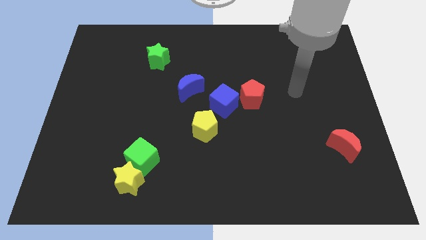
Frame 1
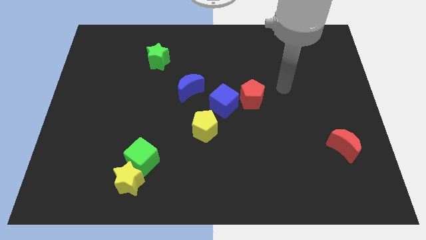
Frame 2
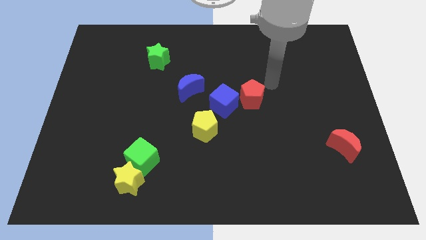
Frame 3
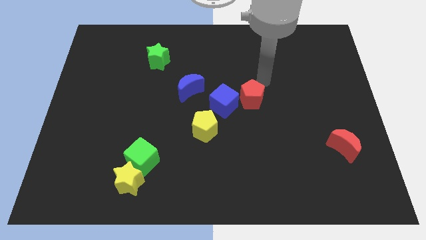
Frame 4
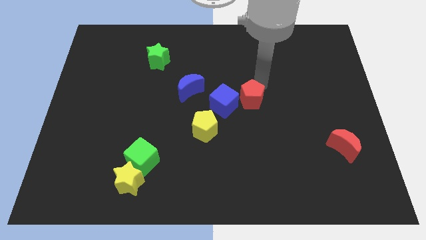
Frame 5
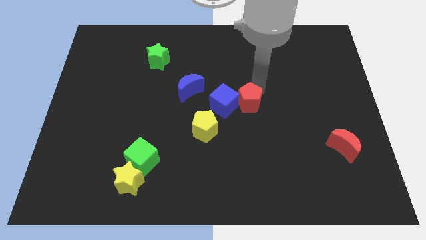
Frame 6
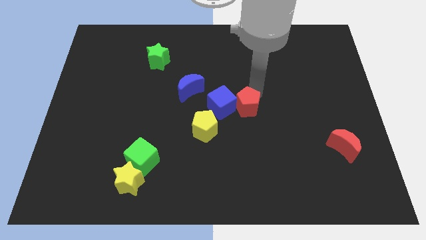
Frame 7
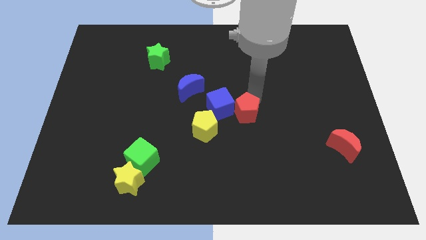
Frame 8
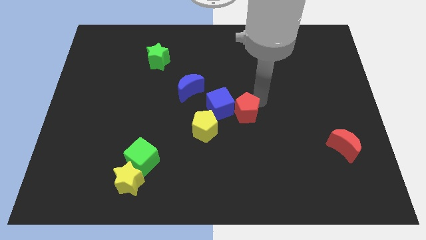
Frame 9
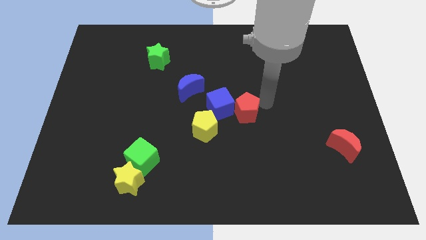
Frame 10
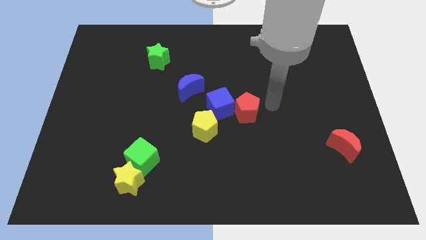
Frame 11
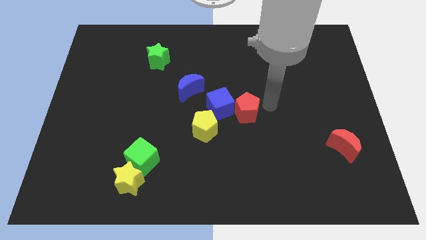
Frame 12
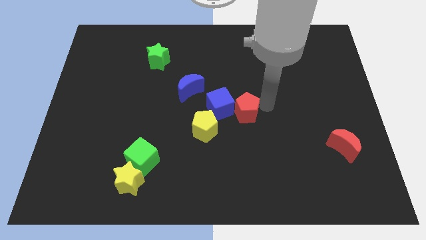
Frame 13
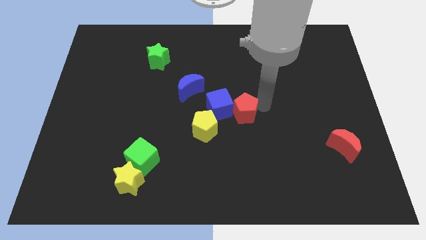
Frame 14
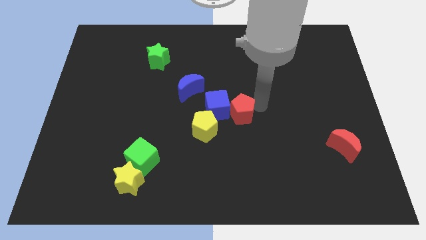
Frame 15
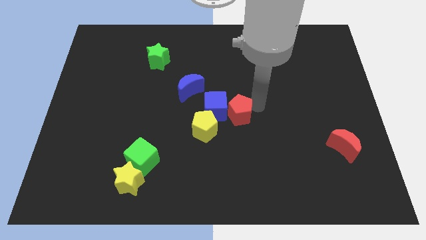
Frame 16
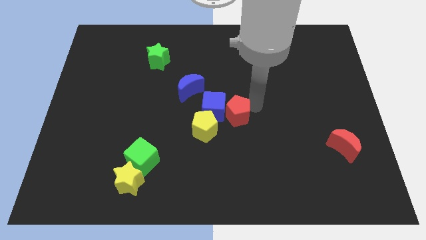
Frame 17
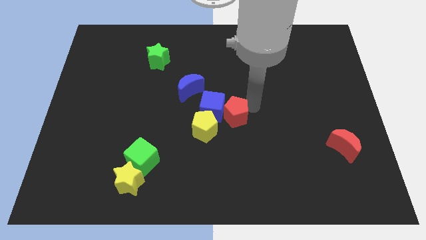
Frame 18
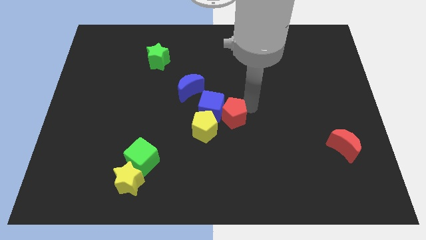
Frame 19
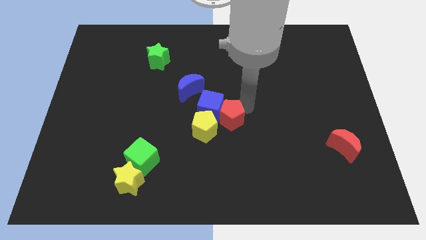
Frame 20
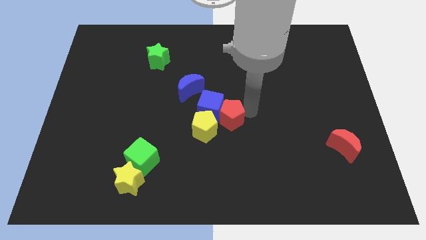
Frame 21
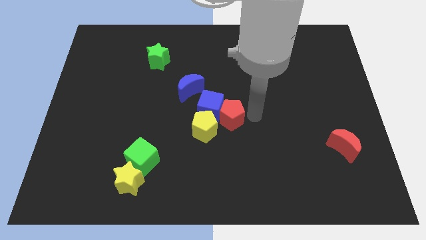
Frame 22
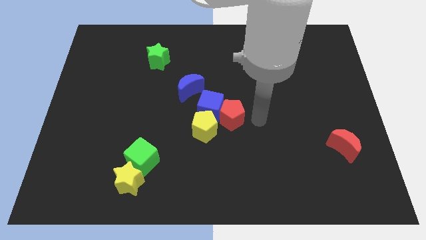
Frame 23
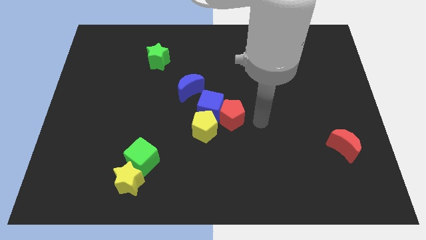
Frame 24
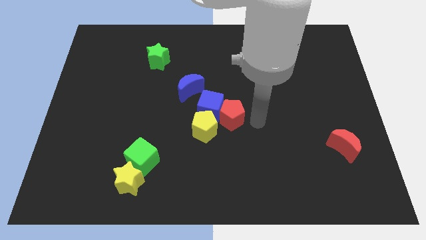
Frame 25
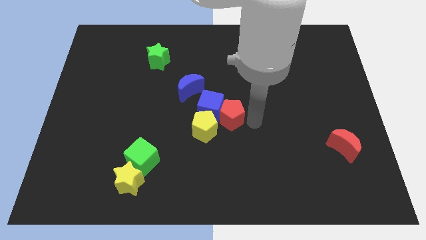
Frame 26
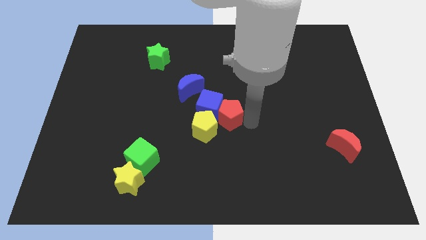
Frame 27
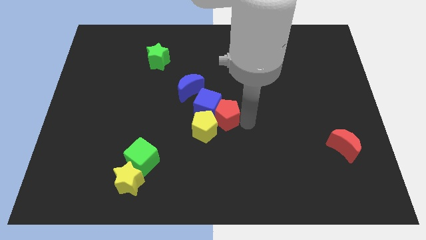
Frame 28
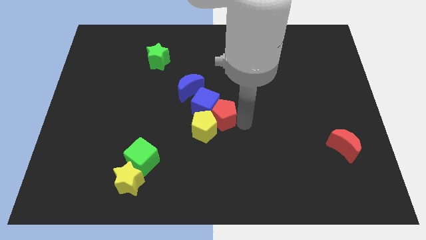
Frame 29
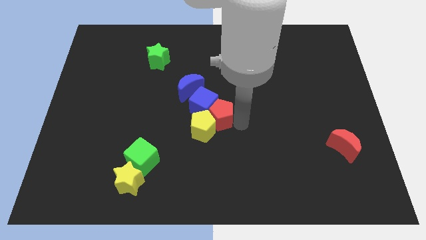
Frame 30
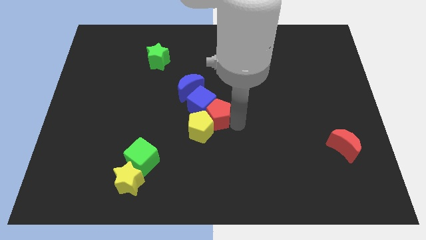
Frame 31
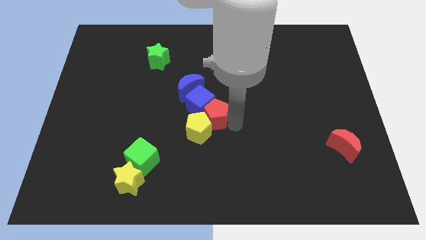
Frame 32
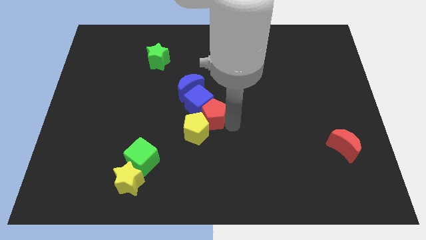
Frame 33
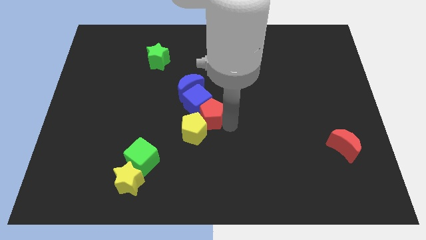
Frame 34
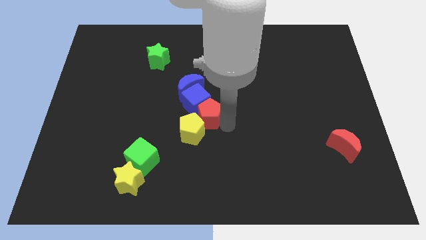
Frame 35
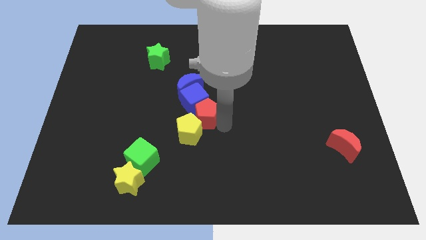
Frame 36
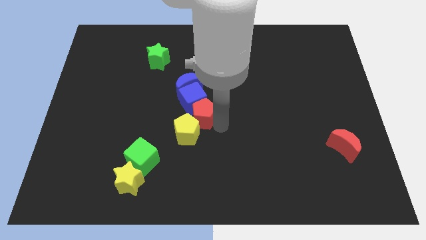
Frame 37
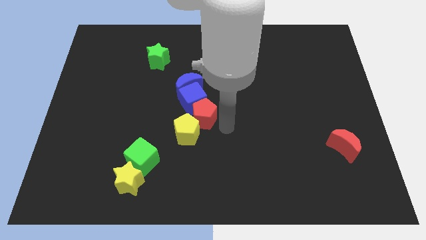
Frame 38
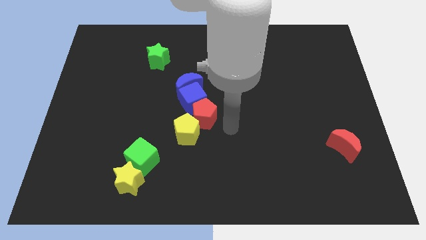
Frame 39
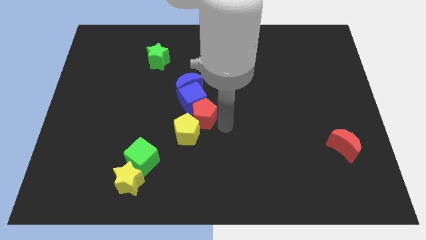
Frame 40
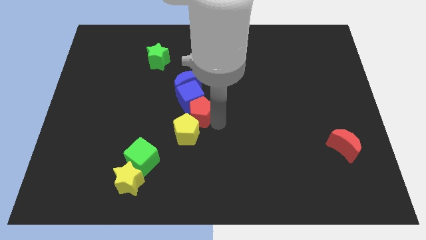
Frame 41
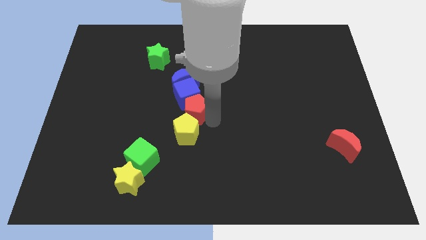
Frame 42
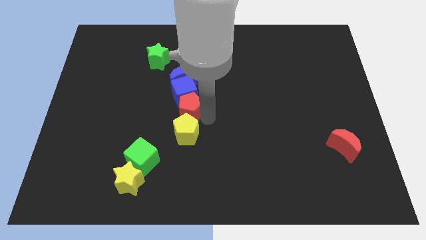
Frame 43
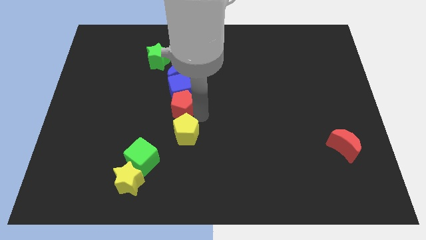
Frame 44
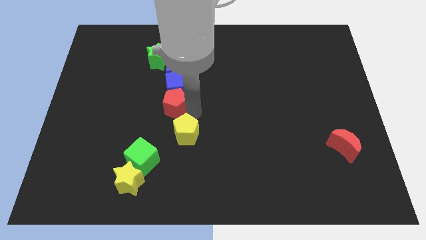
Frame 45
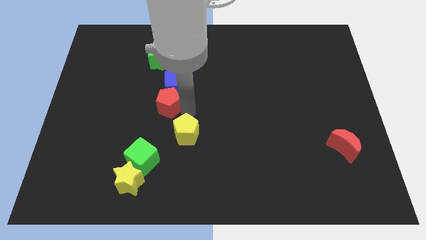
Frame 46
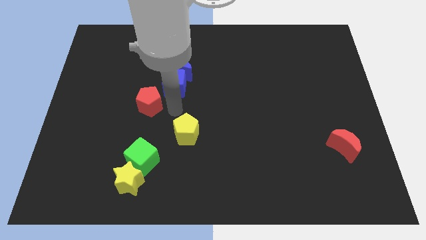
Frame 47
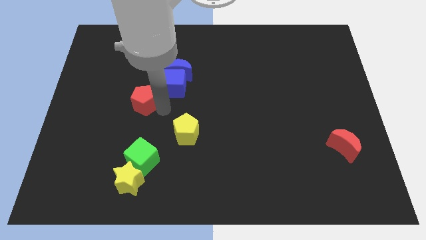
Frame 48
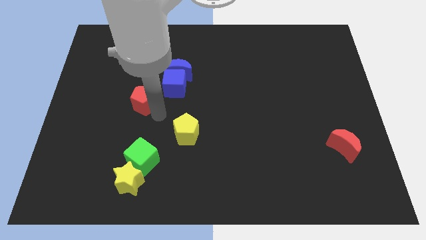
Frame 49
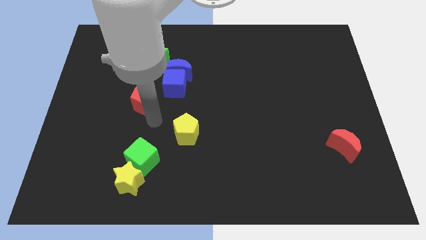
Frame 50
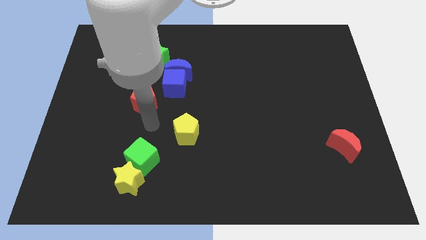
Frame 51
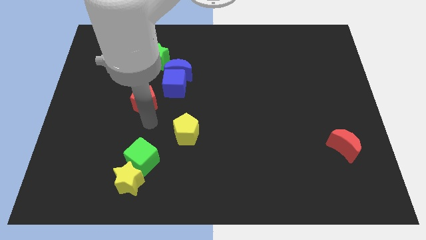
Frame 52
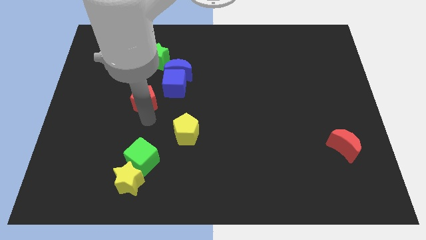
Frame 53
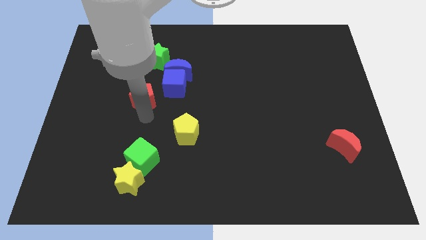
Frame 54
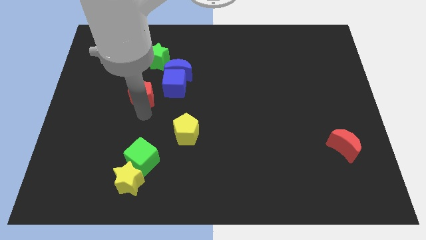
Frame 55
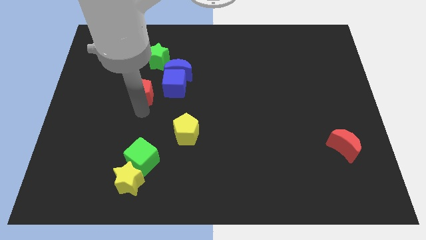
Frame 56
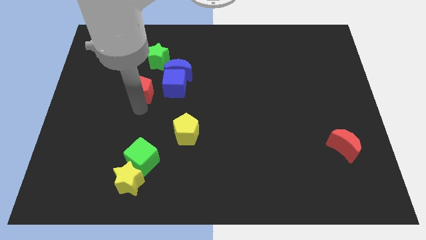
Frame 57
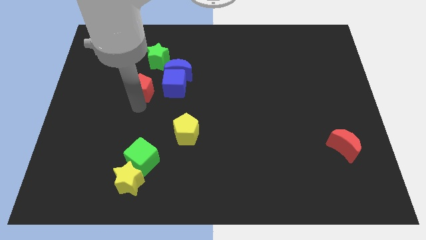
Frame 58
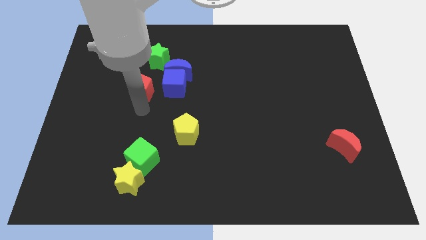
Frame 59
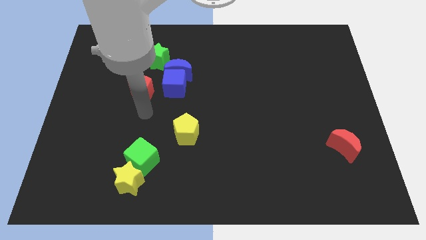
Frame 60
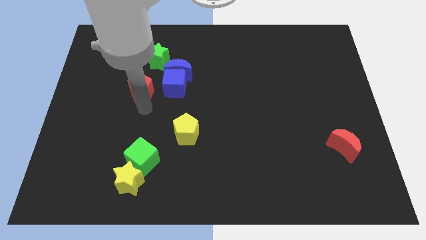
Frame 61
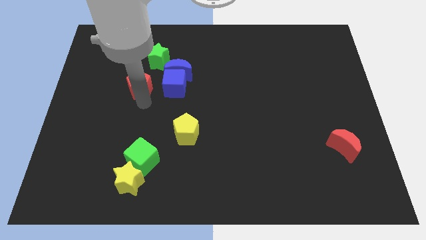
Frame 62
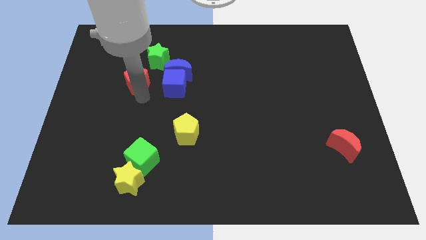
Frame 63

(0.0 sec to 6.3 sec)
move the red pentagon left of the blue moon

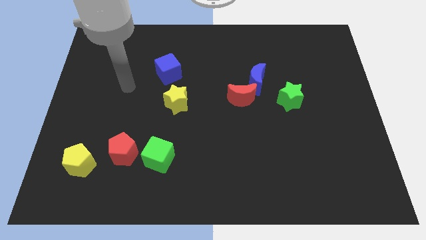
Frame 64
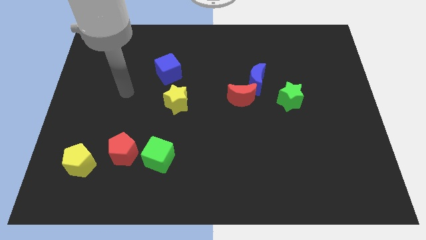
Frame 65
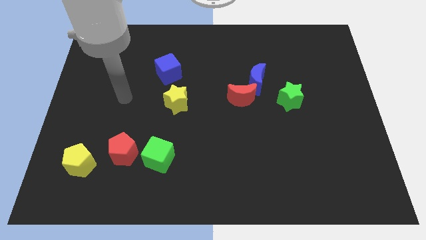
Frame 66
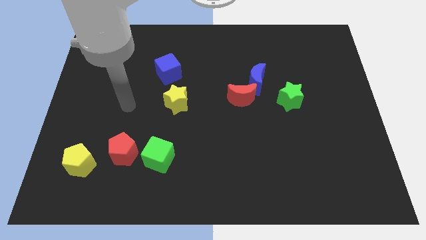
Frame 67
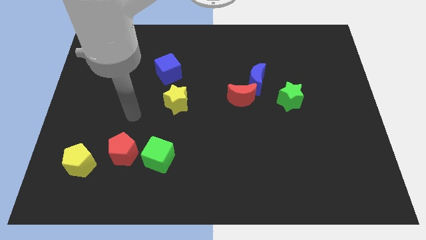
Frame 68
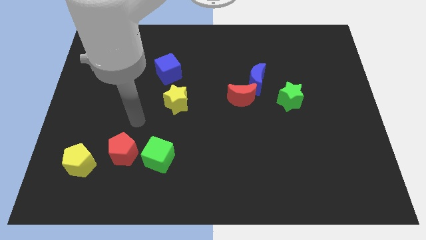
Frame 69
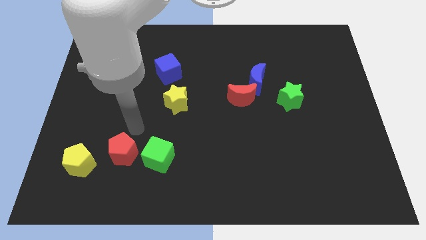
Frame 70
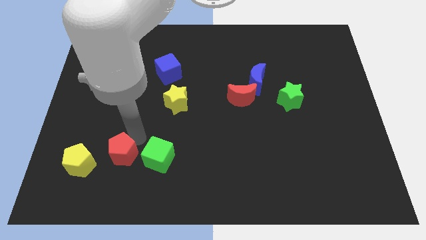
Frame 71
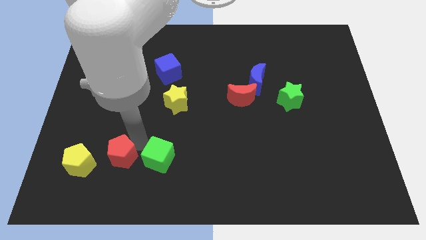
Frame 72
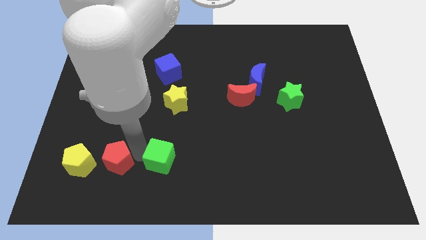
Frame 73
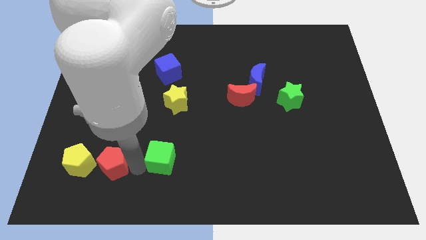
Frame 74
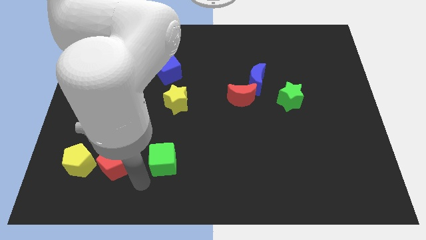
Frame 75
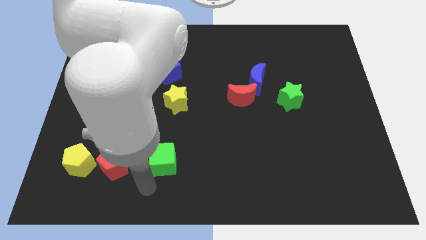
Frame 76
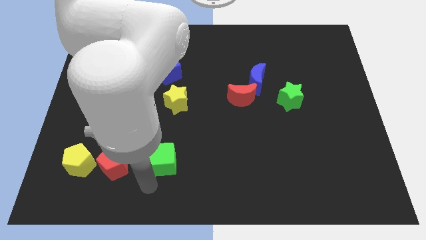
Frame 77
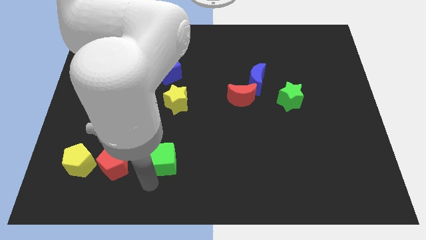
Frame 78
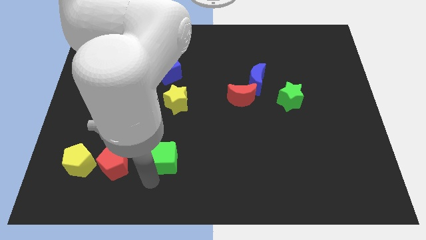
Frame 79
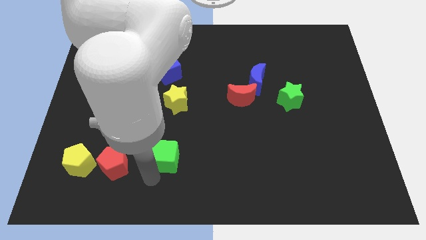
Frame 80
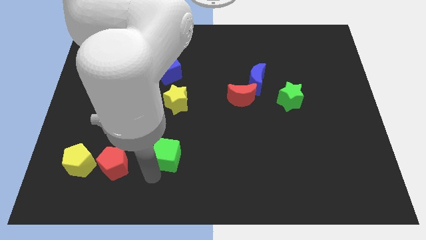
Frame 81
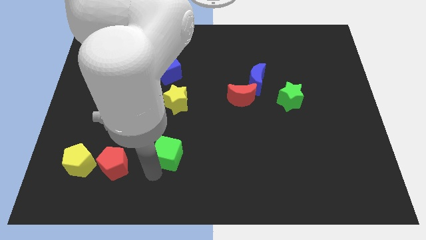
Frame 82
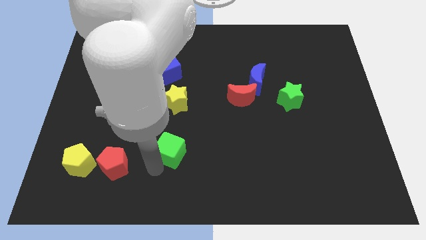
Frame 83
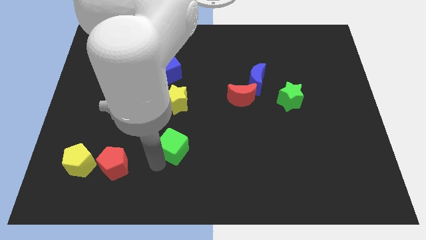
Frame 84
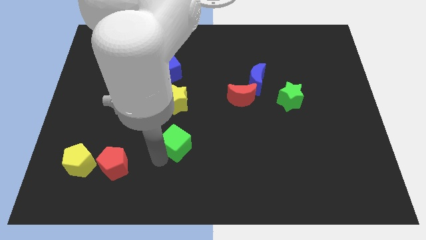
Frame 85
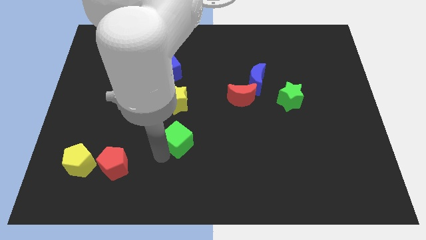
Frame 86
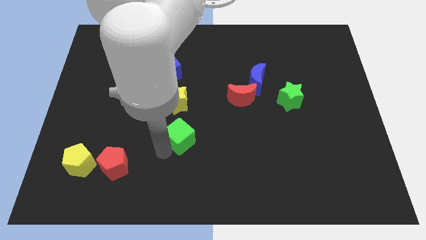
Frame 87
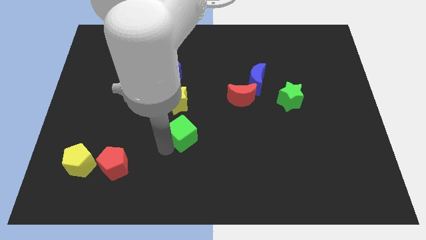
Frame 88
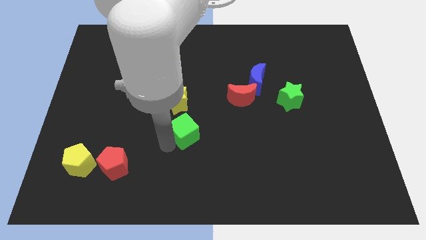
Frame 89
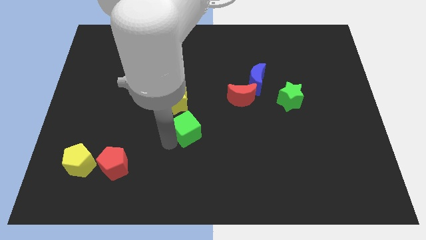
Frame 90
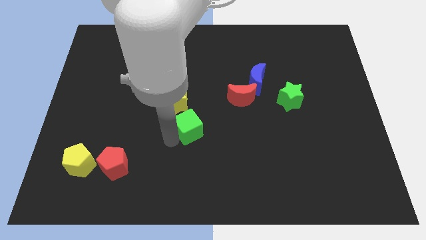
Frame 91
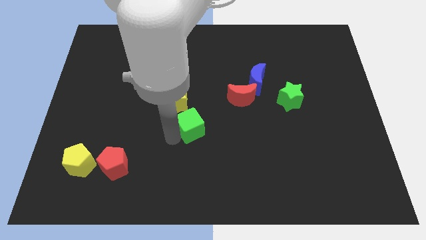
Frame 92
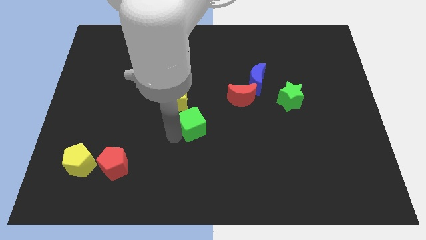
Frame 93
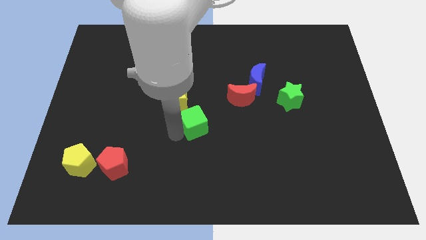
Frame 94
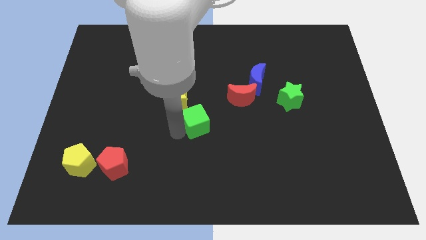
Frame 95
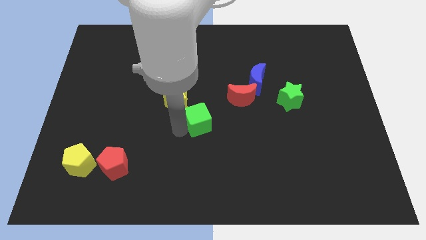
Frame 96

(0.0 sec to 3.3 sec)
push the green cube to the bottom left side of the red moon
